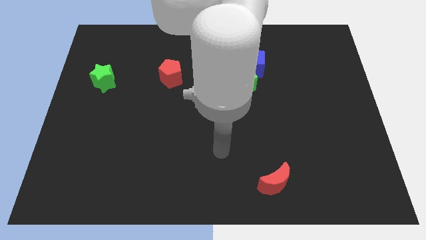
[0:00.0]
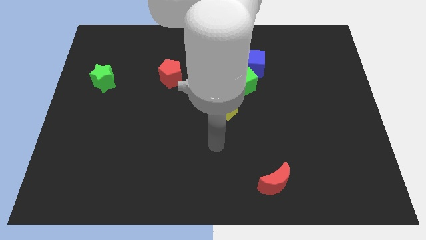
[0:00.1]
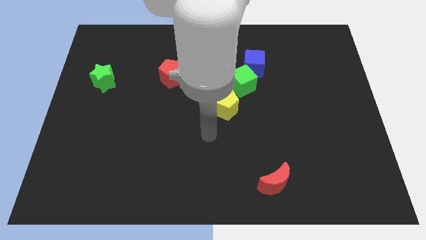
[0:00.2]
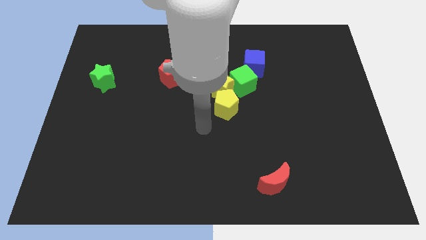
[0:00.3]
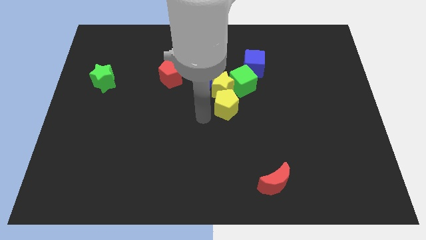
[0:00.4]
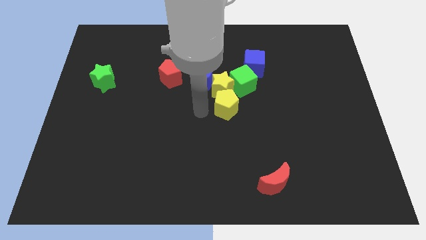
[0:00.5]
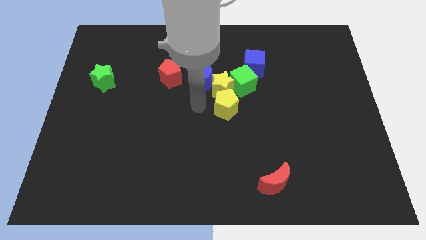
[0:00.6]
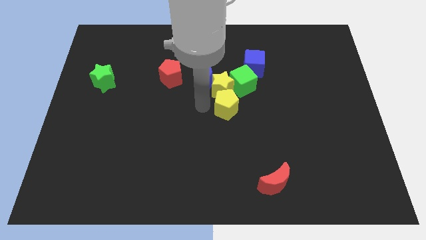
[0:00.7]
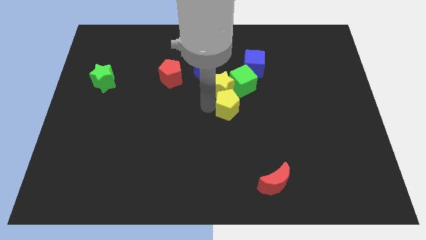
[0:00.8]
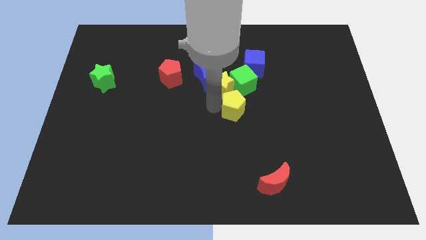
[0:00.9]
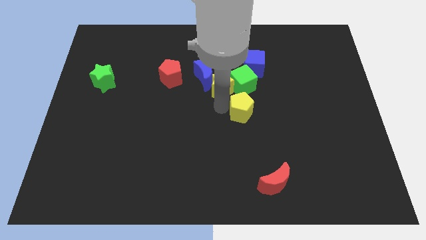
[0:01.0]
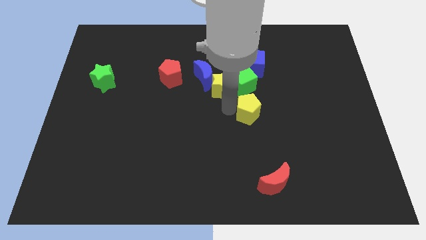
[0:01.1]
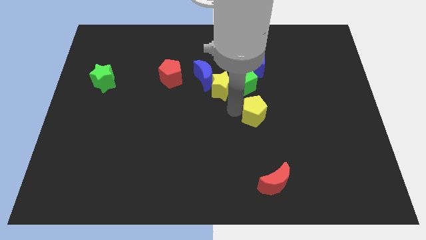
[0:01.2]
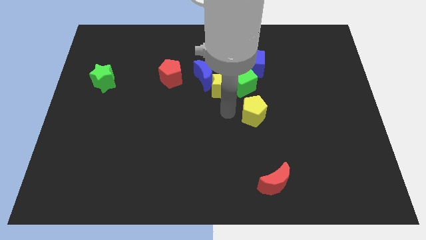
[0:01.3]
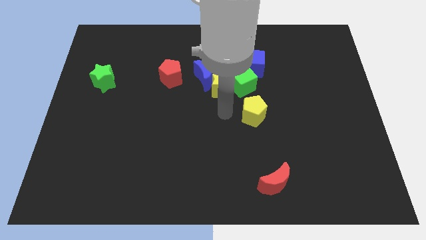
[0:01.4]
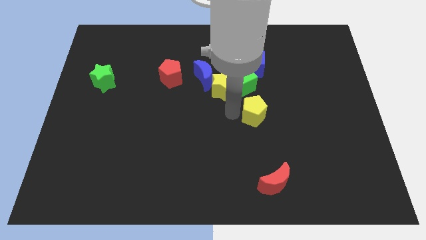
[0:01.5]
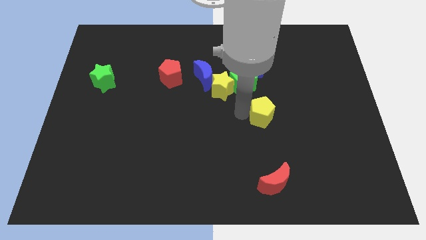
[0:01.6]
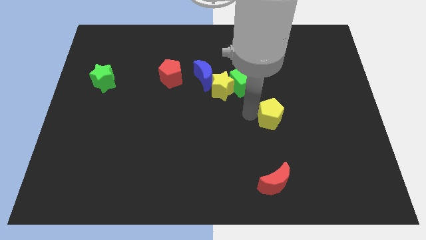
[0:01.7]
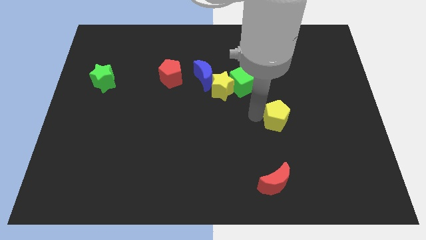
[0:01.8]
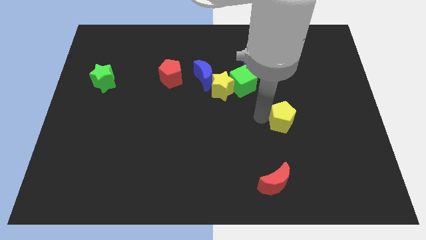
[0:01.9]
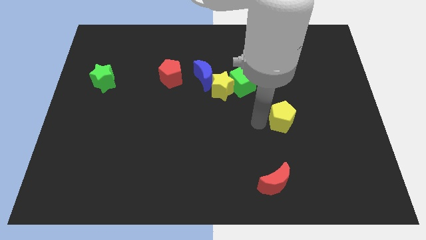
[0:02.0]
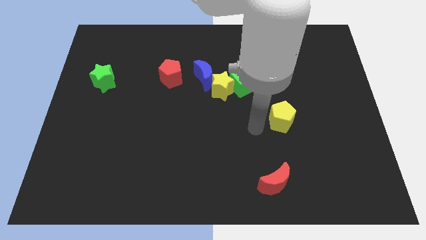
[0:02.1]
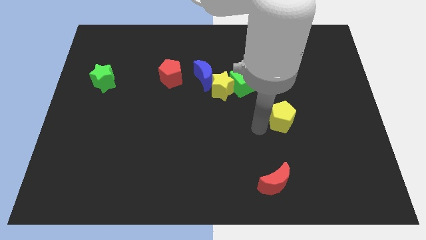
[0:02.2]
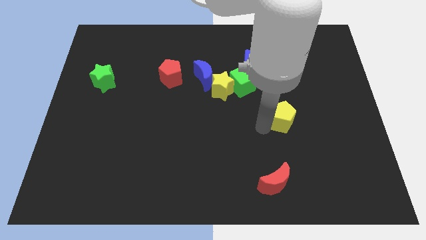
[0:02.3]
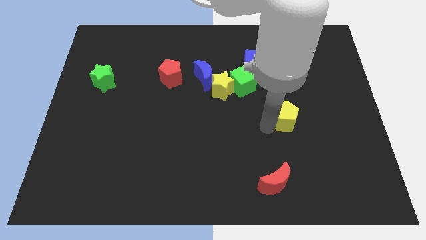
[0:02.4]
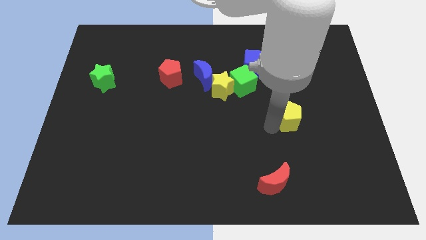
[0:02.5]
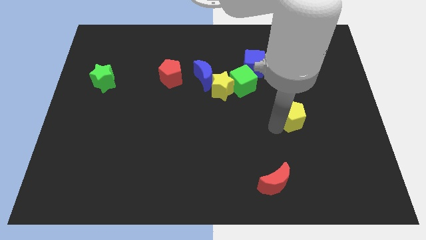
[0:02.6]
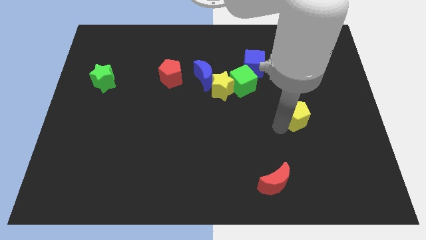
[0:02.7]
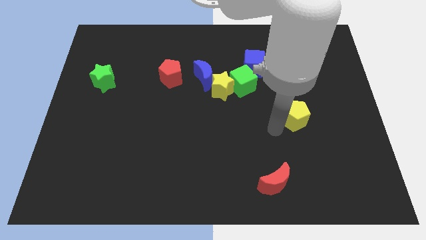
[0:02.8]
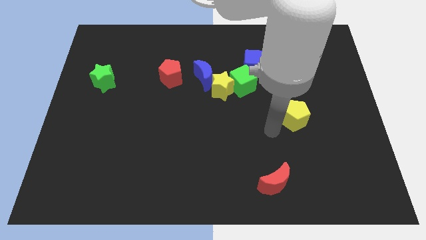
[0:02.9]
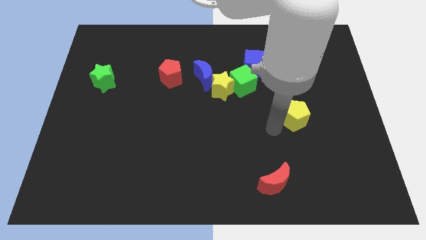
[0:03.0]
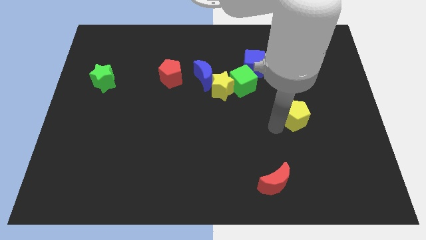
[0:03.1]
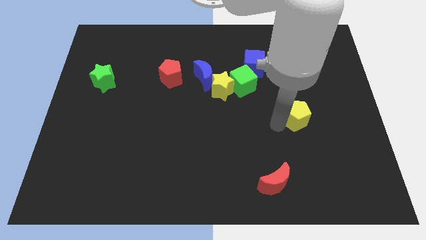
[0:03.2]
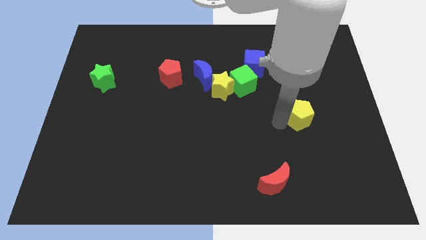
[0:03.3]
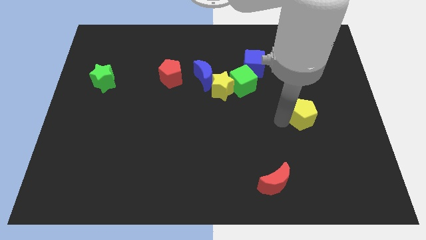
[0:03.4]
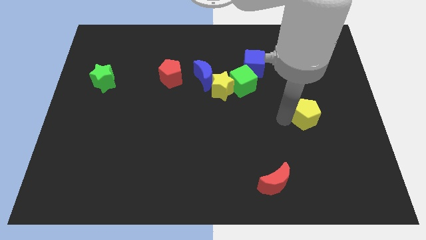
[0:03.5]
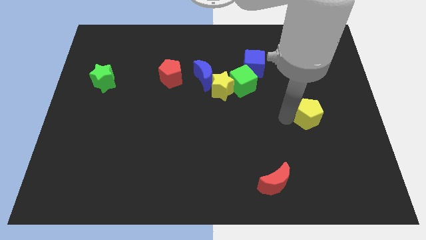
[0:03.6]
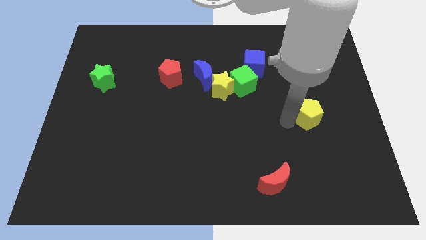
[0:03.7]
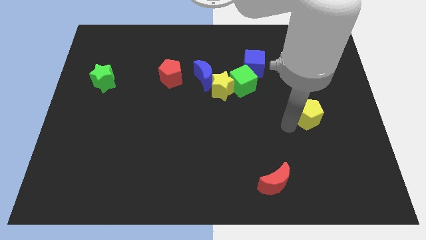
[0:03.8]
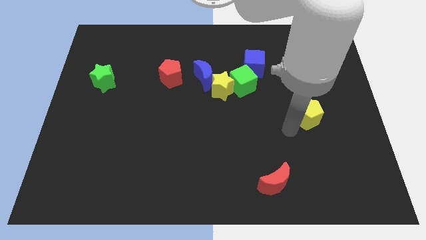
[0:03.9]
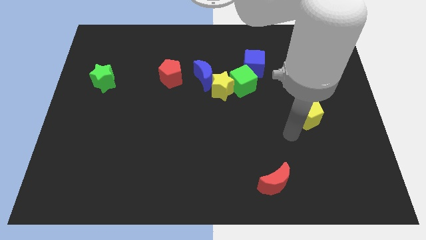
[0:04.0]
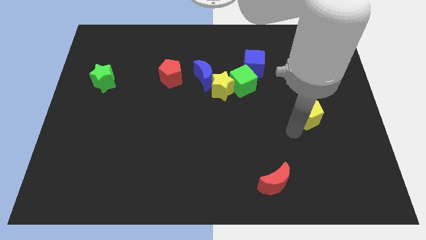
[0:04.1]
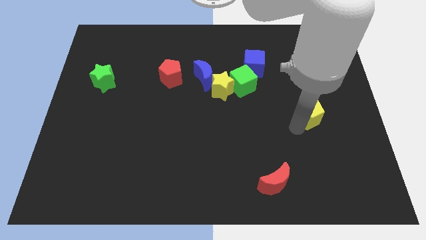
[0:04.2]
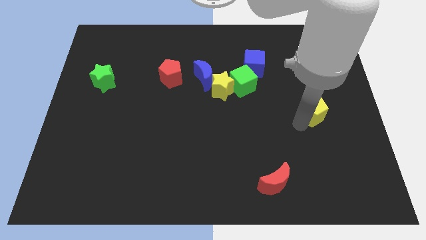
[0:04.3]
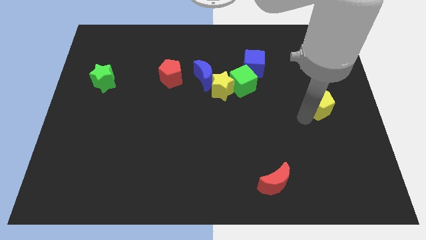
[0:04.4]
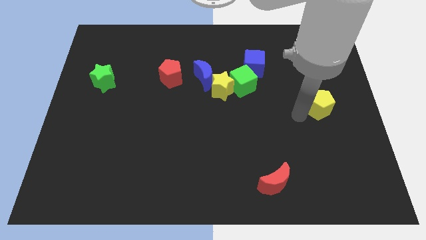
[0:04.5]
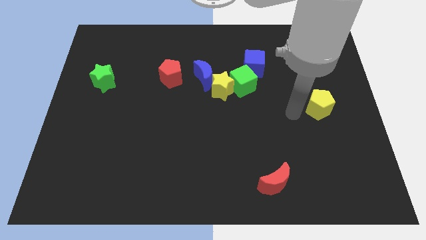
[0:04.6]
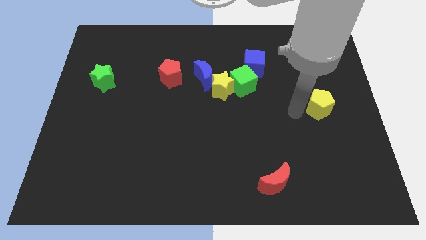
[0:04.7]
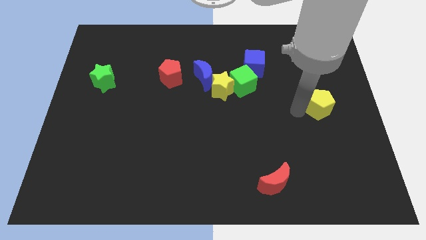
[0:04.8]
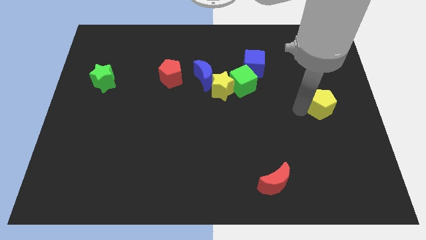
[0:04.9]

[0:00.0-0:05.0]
push the yellow pentagon to the right side of the board

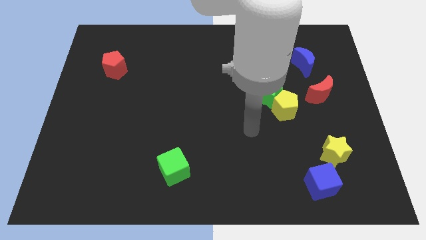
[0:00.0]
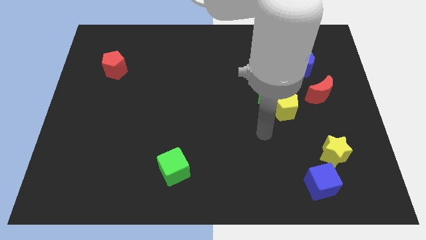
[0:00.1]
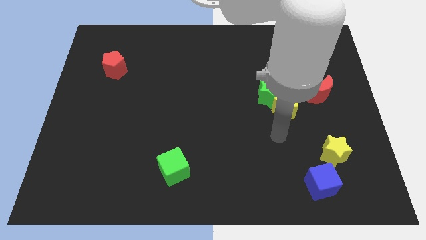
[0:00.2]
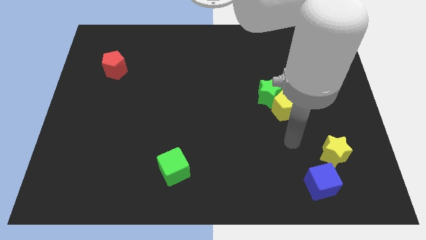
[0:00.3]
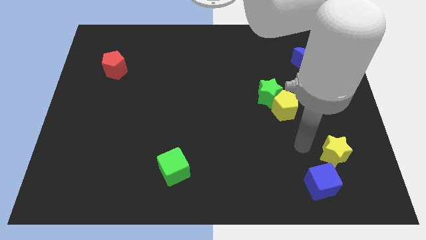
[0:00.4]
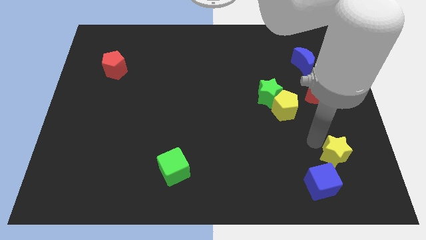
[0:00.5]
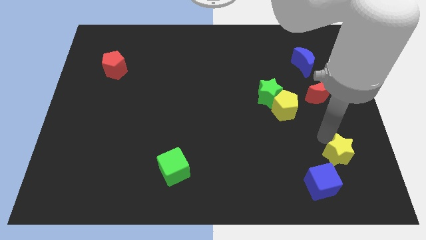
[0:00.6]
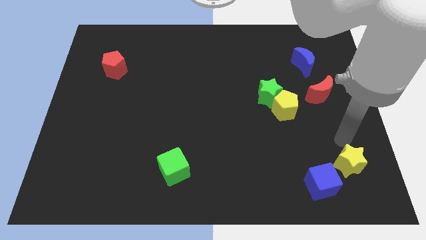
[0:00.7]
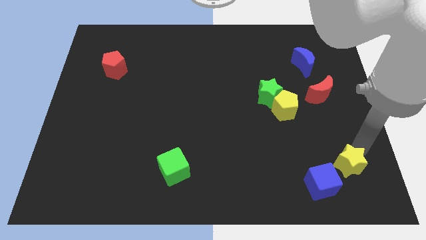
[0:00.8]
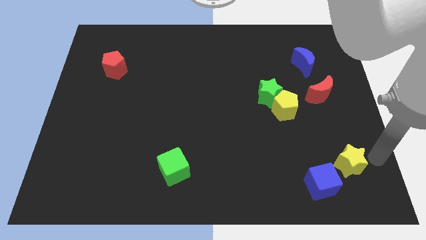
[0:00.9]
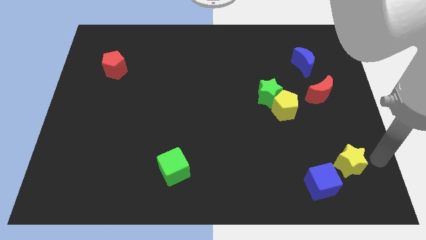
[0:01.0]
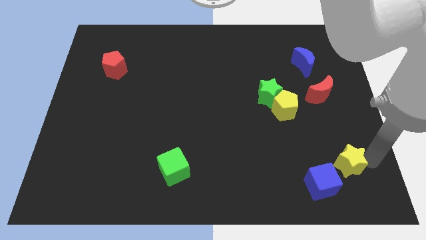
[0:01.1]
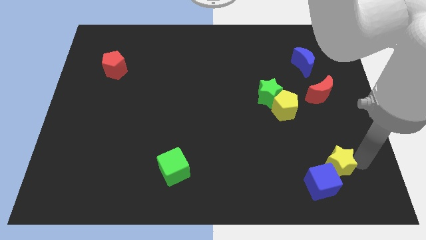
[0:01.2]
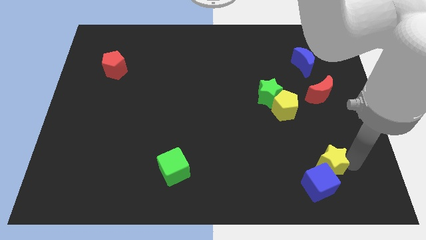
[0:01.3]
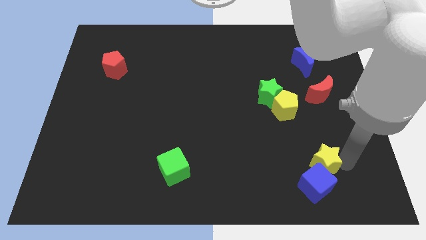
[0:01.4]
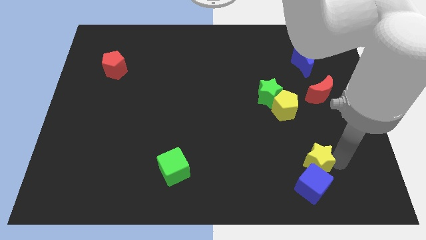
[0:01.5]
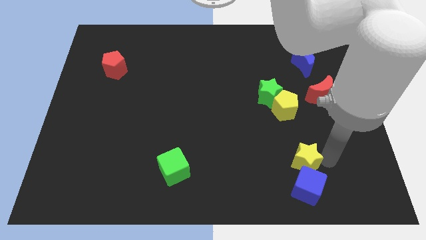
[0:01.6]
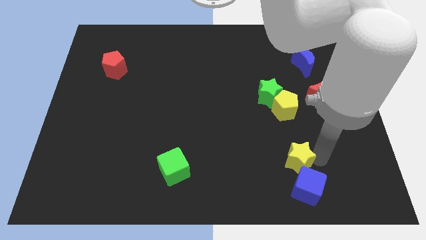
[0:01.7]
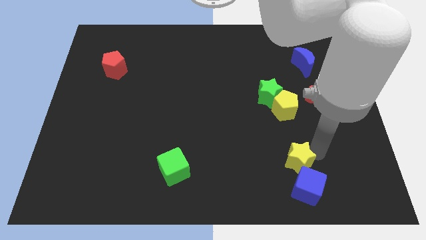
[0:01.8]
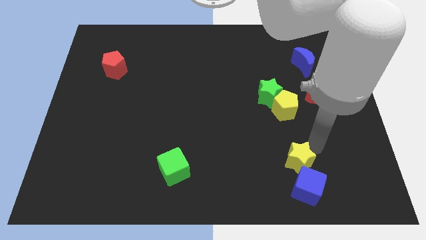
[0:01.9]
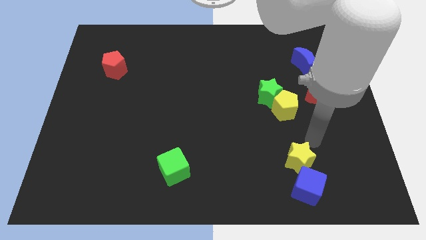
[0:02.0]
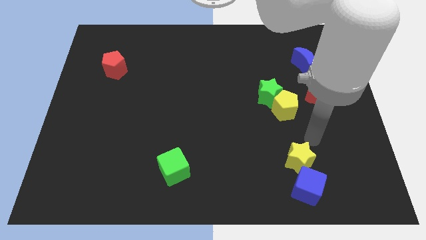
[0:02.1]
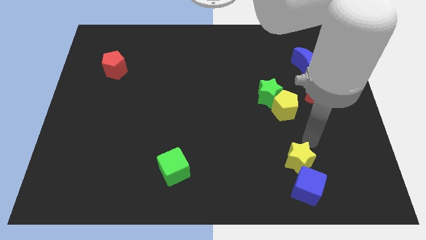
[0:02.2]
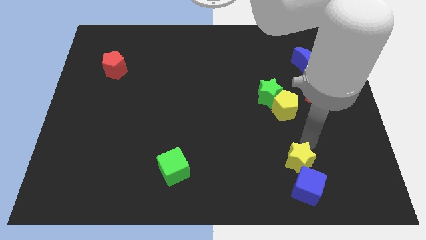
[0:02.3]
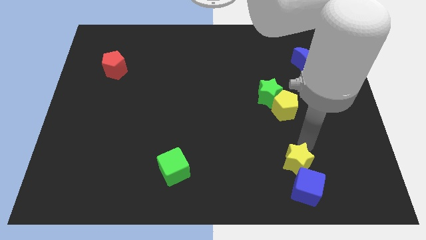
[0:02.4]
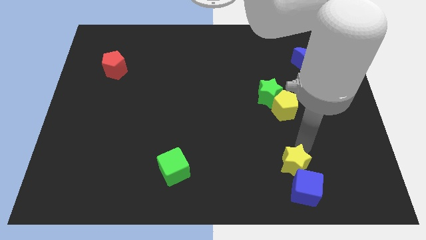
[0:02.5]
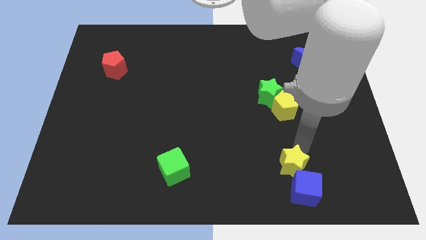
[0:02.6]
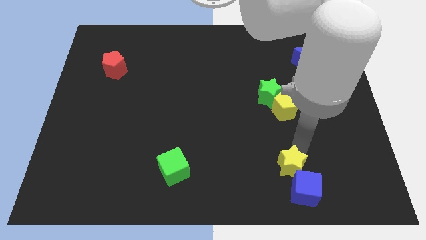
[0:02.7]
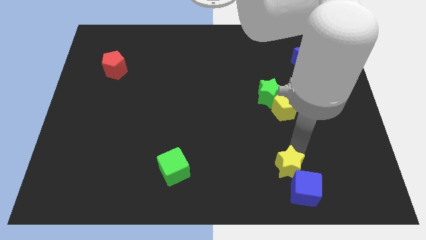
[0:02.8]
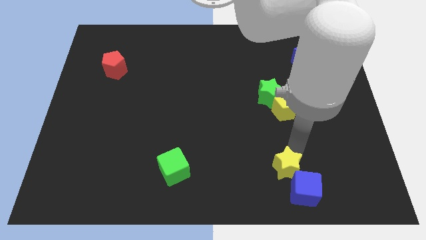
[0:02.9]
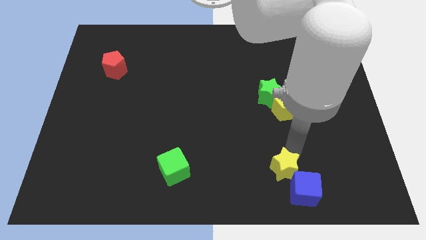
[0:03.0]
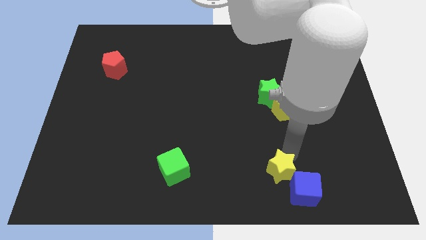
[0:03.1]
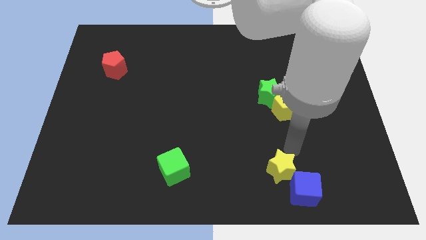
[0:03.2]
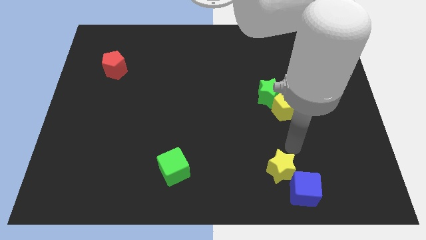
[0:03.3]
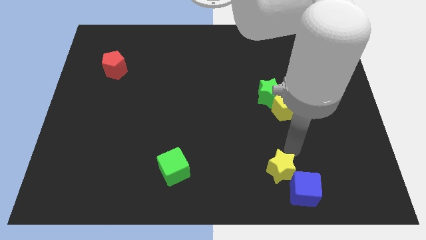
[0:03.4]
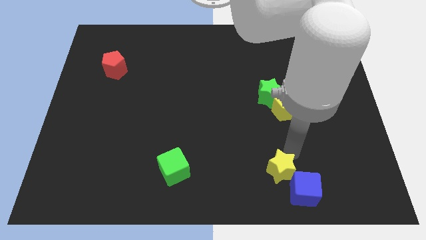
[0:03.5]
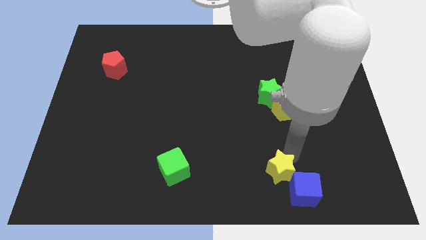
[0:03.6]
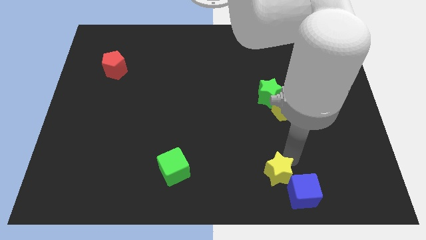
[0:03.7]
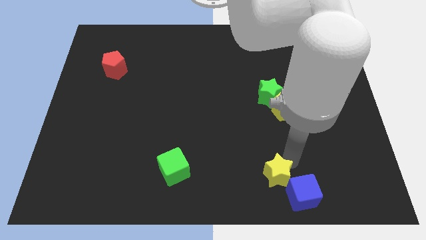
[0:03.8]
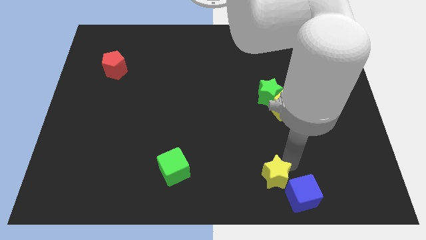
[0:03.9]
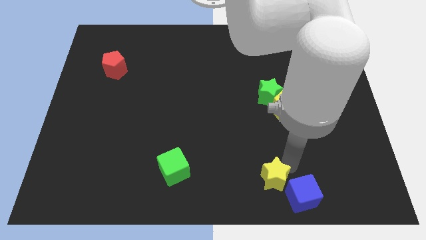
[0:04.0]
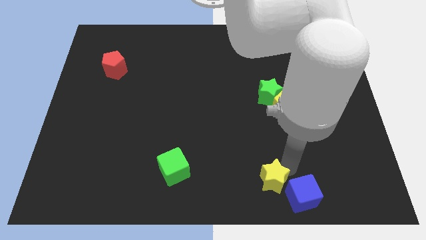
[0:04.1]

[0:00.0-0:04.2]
put the yellow star to the bottom side
